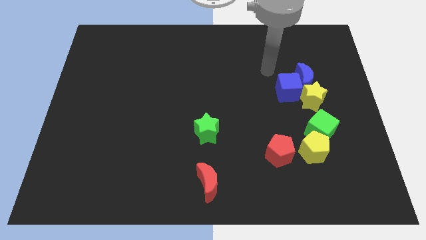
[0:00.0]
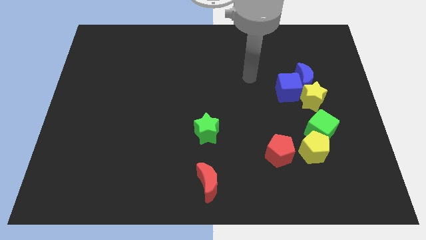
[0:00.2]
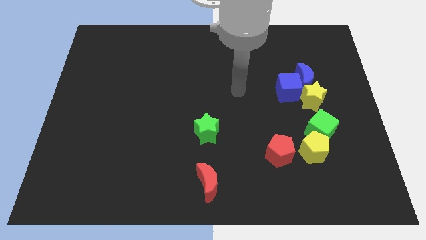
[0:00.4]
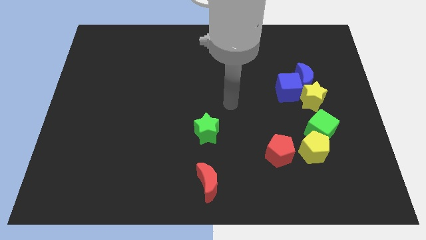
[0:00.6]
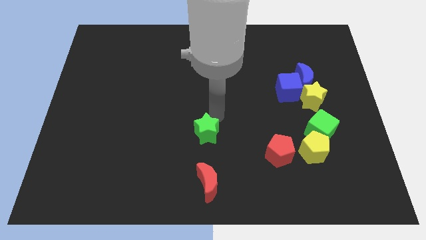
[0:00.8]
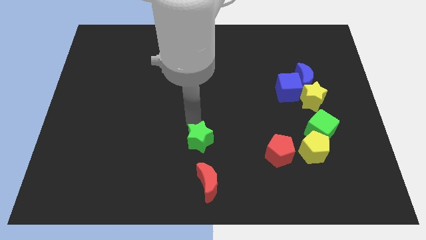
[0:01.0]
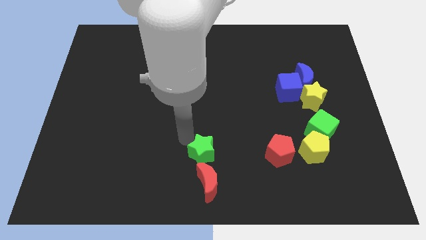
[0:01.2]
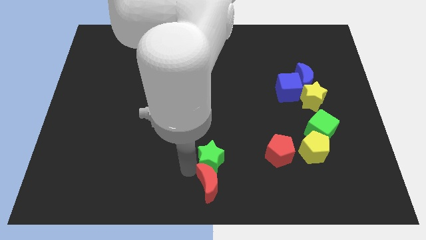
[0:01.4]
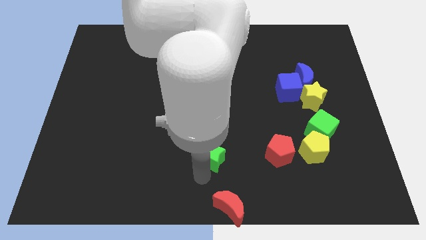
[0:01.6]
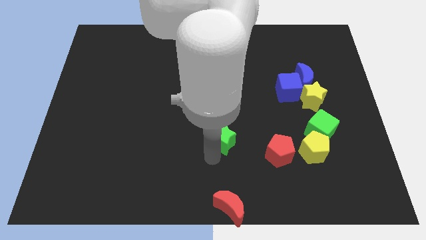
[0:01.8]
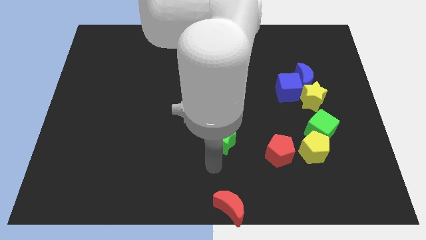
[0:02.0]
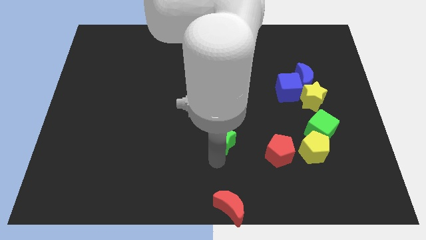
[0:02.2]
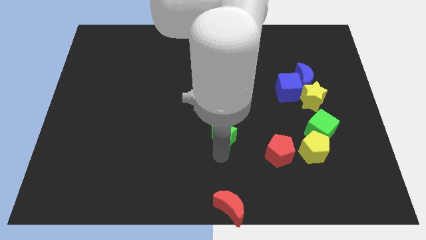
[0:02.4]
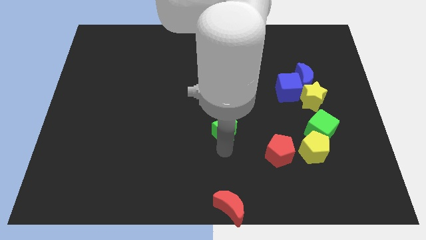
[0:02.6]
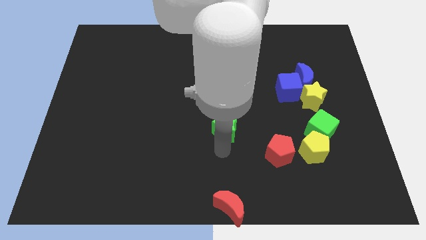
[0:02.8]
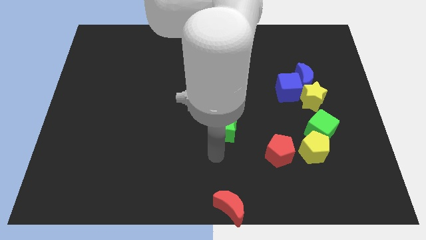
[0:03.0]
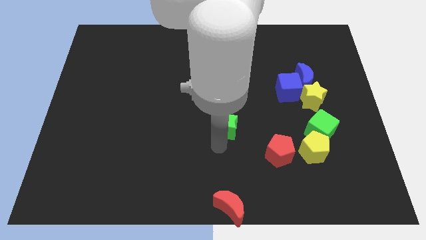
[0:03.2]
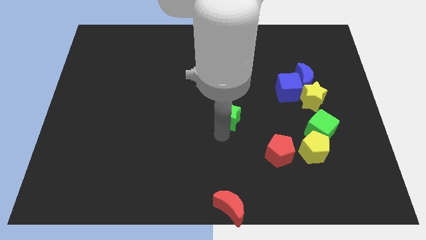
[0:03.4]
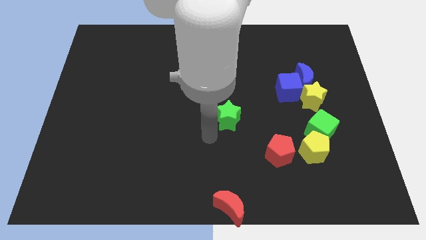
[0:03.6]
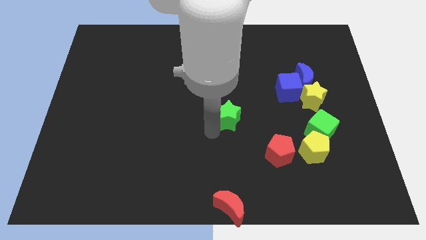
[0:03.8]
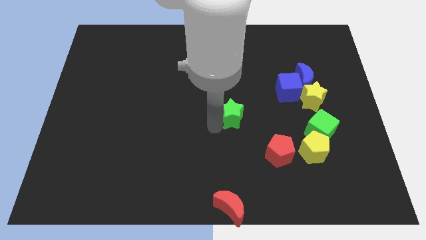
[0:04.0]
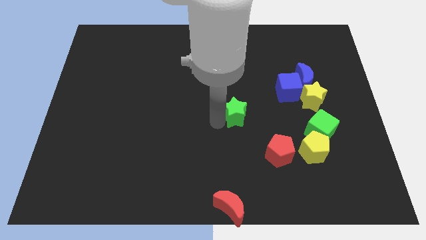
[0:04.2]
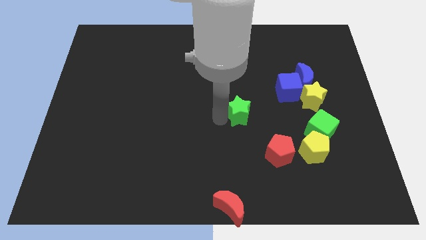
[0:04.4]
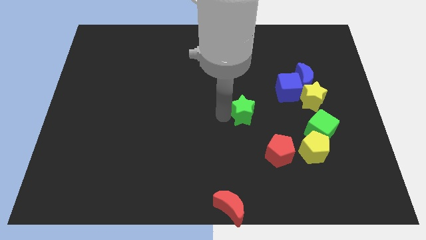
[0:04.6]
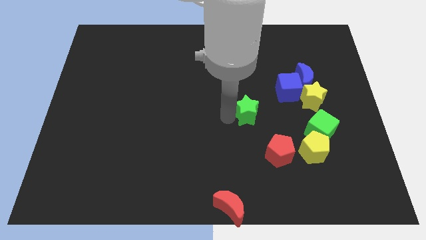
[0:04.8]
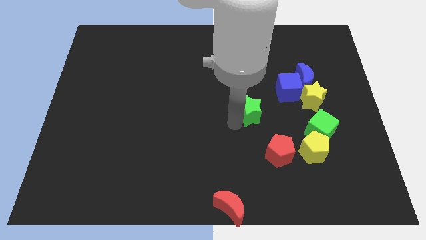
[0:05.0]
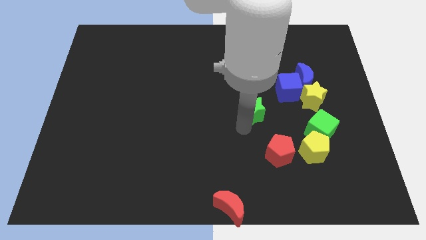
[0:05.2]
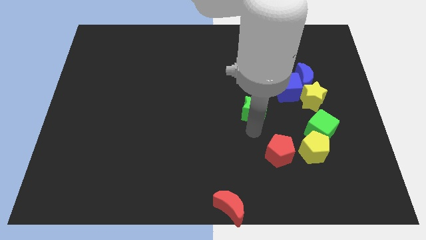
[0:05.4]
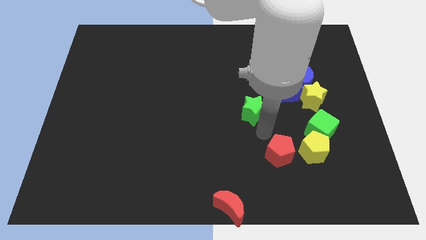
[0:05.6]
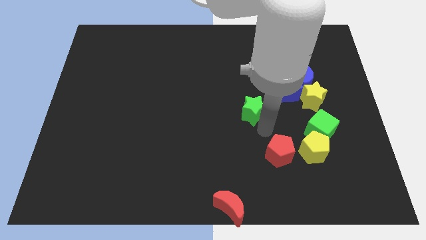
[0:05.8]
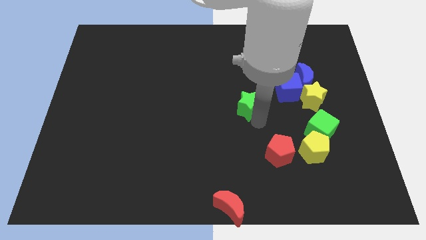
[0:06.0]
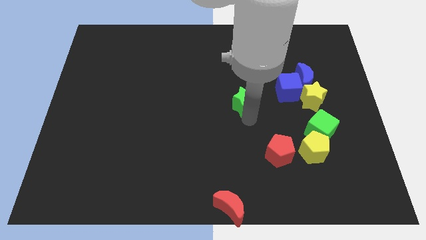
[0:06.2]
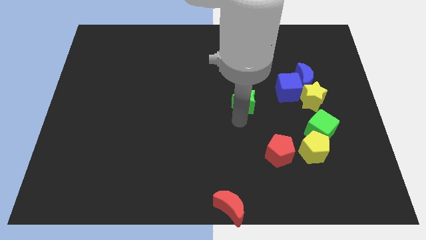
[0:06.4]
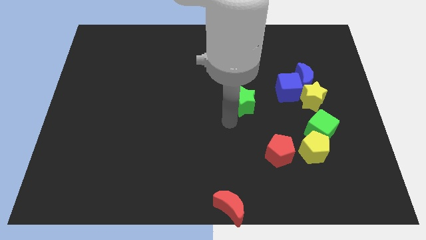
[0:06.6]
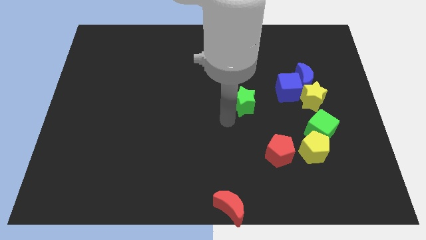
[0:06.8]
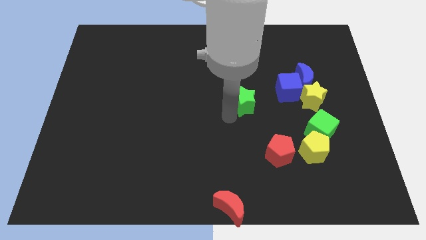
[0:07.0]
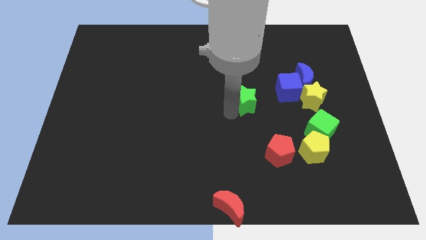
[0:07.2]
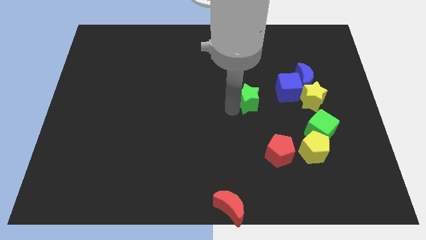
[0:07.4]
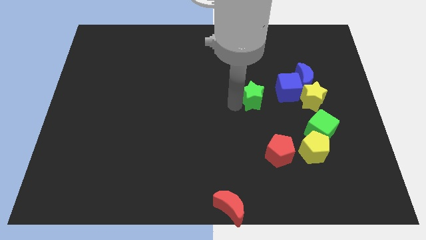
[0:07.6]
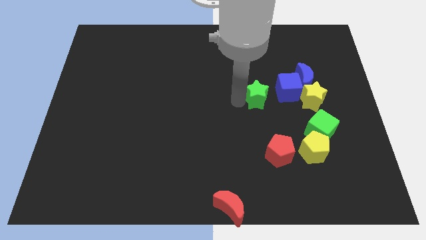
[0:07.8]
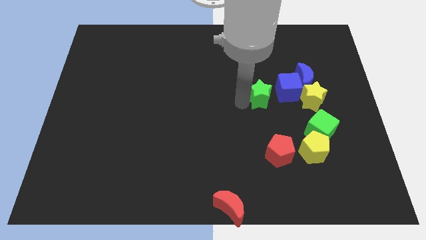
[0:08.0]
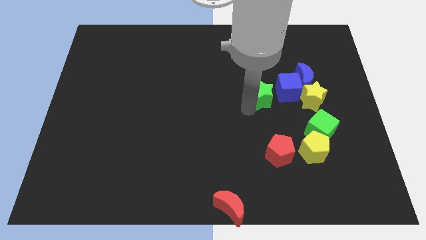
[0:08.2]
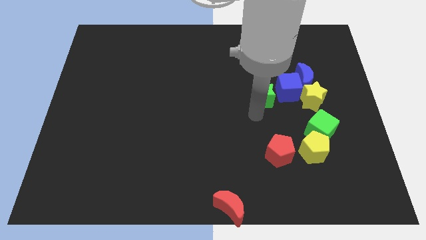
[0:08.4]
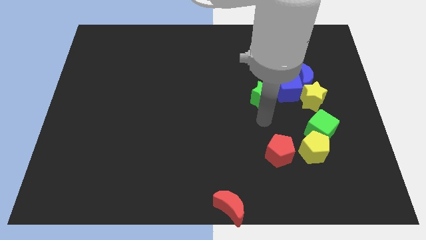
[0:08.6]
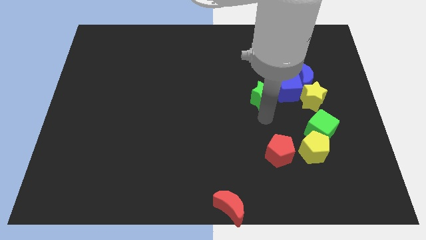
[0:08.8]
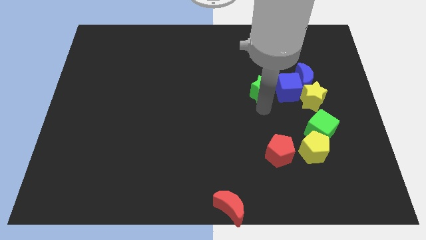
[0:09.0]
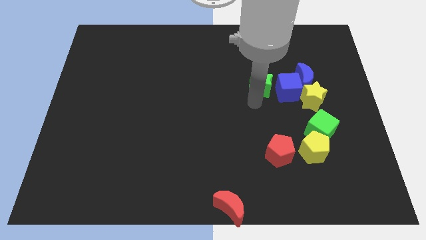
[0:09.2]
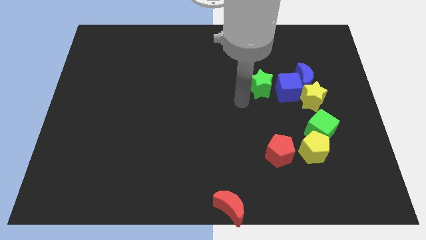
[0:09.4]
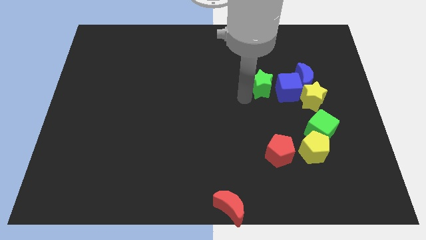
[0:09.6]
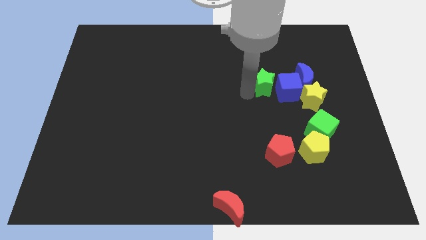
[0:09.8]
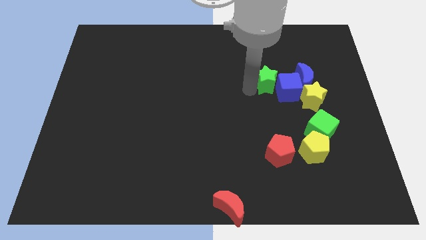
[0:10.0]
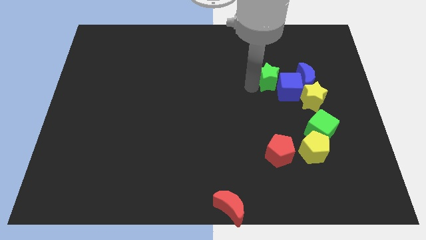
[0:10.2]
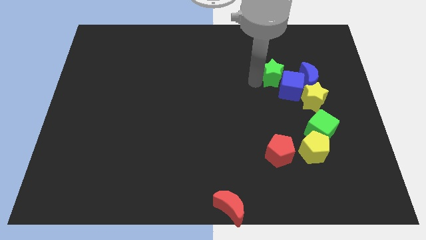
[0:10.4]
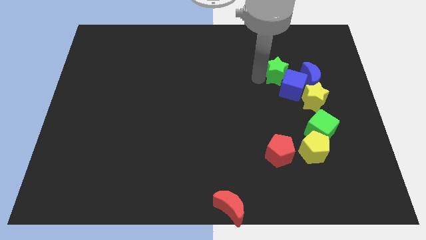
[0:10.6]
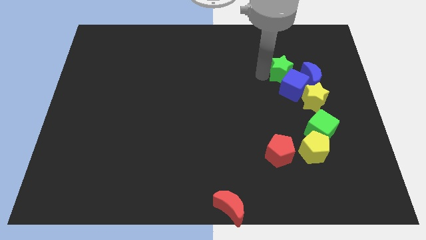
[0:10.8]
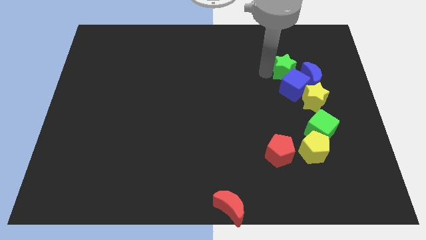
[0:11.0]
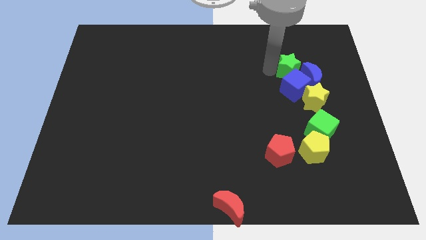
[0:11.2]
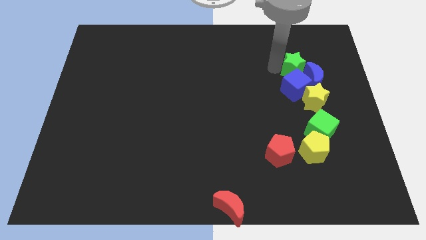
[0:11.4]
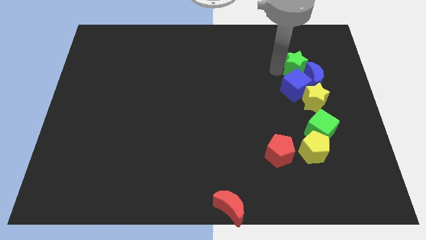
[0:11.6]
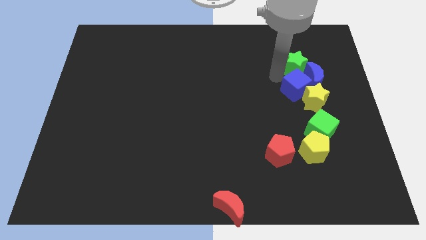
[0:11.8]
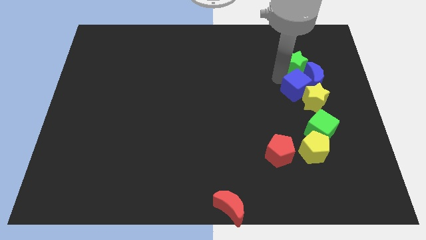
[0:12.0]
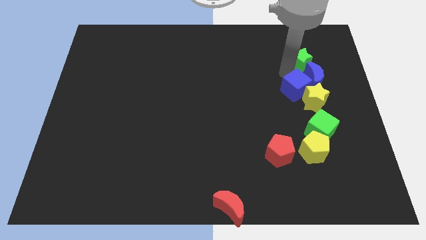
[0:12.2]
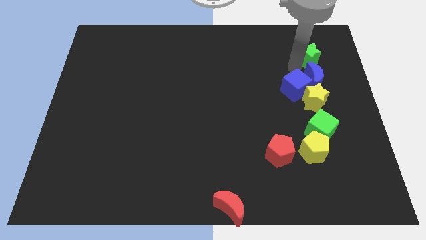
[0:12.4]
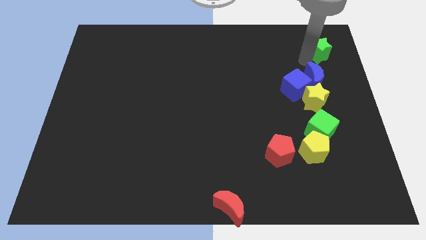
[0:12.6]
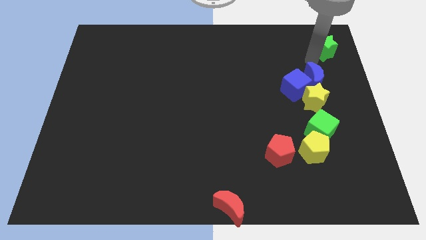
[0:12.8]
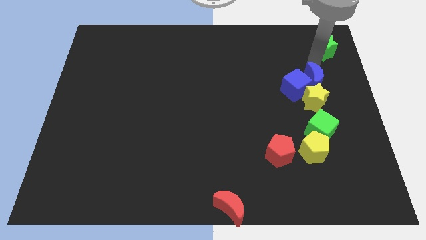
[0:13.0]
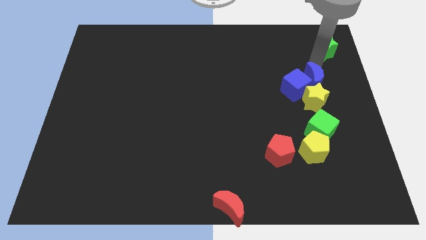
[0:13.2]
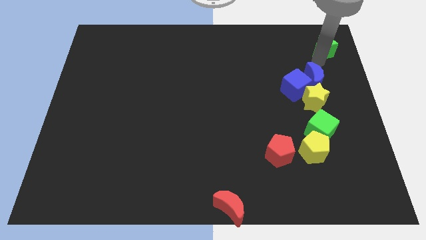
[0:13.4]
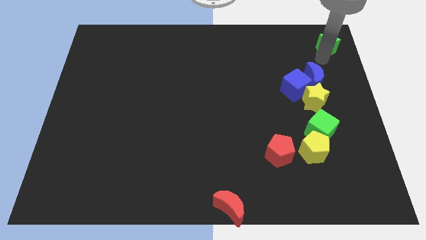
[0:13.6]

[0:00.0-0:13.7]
move the green star to the top right corner
